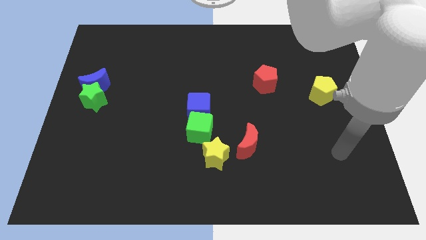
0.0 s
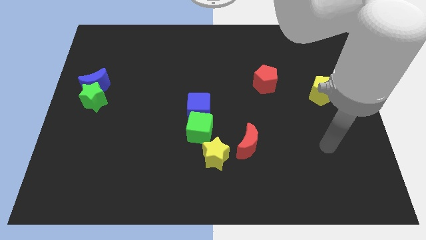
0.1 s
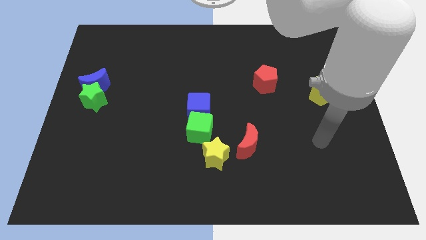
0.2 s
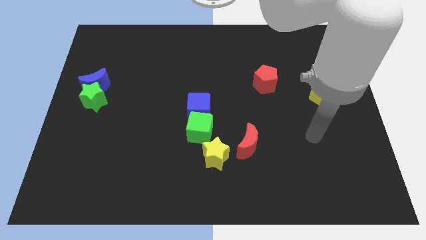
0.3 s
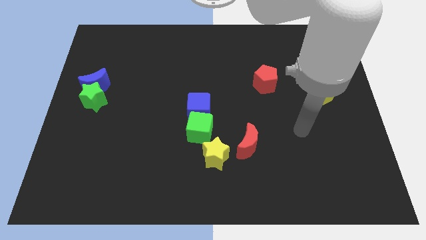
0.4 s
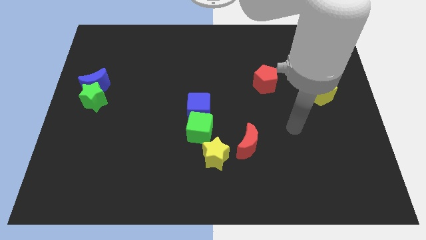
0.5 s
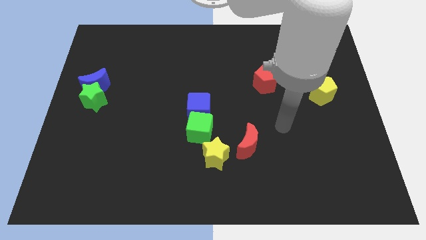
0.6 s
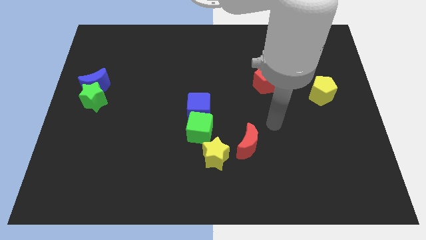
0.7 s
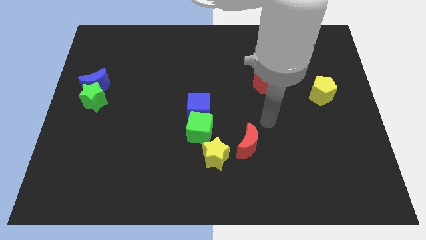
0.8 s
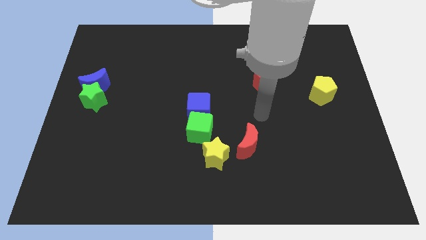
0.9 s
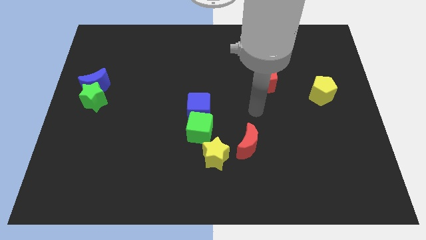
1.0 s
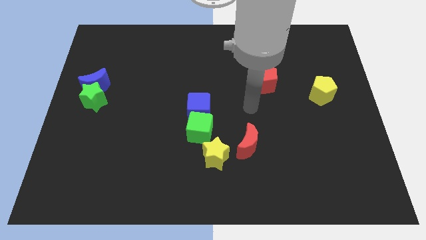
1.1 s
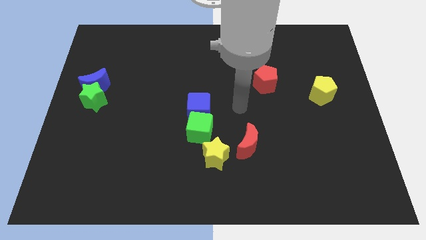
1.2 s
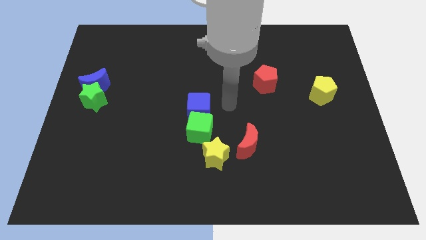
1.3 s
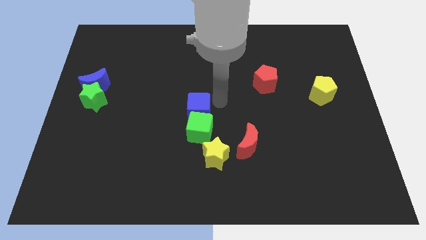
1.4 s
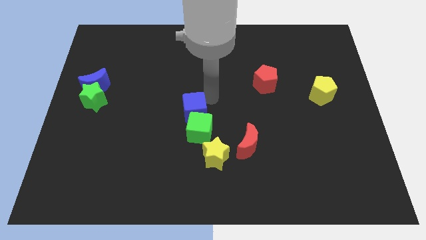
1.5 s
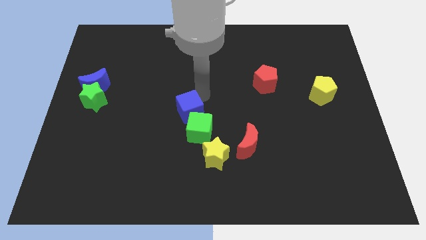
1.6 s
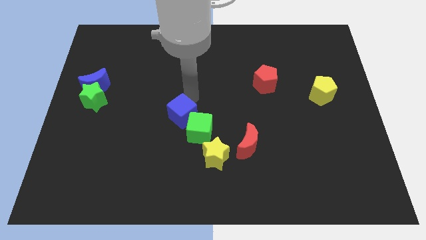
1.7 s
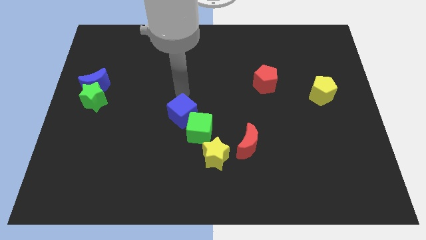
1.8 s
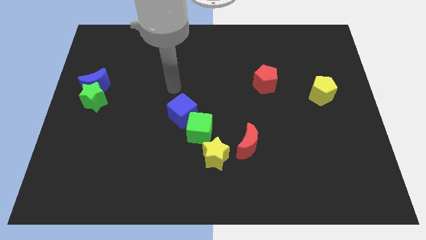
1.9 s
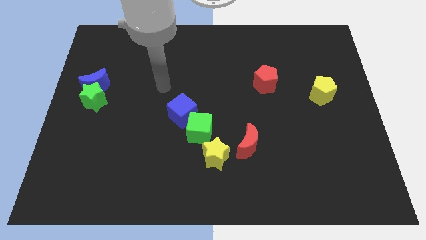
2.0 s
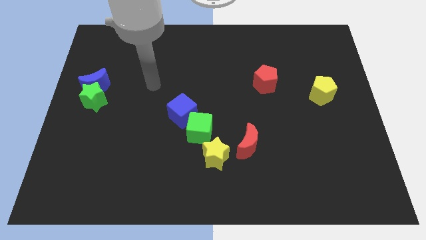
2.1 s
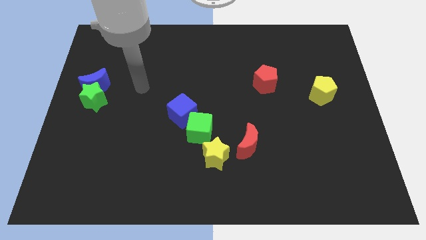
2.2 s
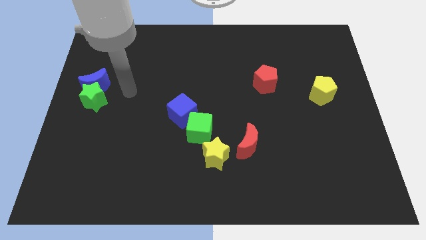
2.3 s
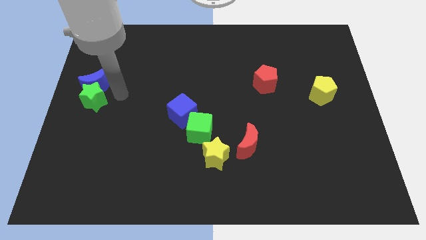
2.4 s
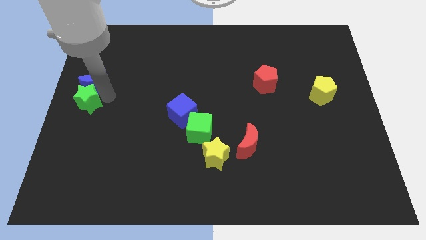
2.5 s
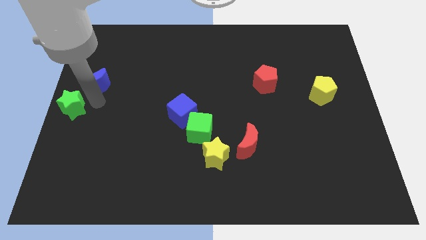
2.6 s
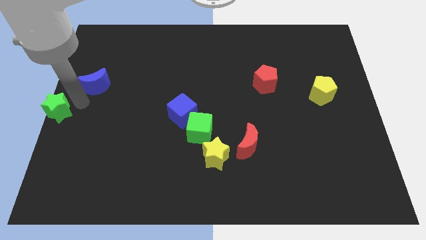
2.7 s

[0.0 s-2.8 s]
move the blue moon away from the green star

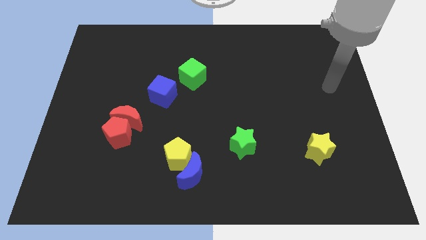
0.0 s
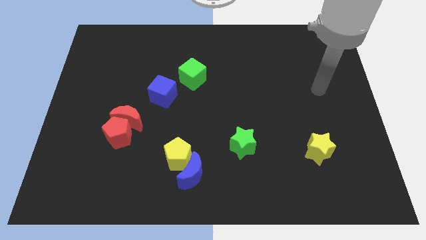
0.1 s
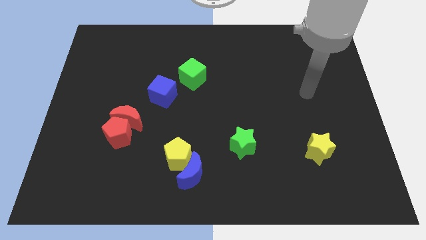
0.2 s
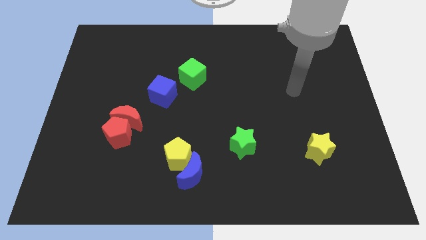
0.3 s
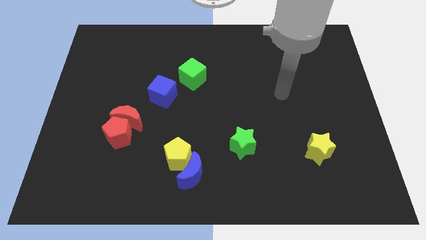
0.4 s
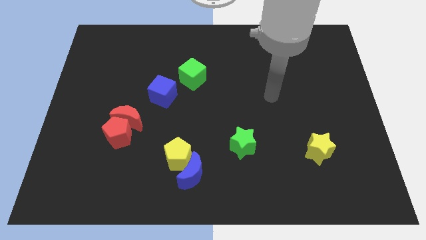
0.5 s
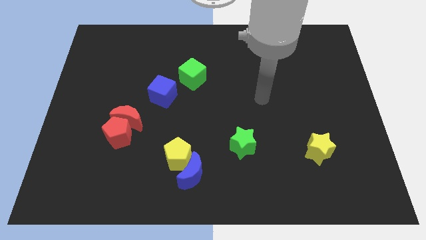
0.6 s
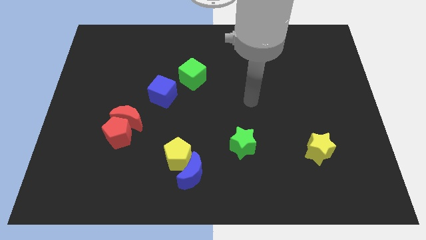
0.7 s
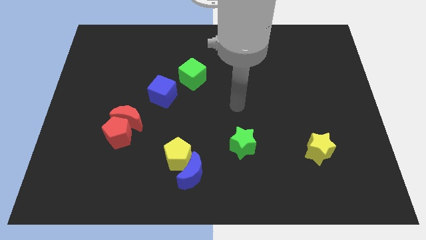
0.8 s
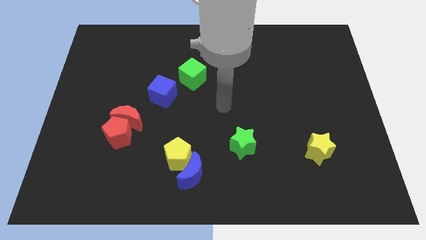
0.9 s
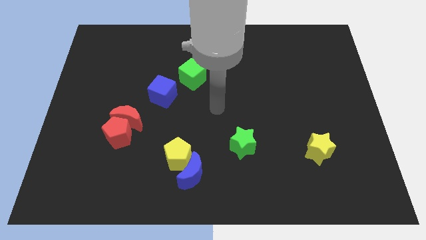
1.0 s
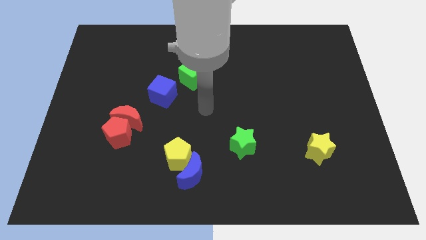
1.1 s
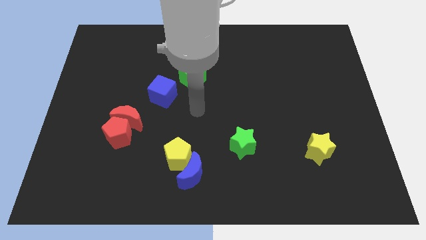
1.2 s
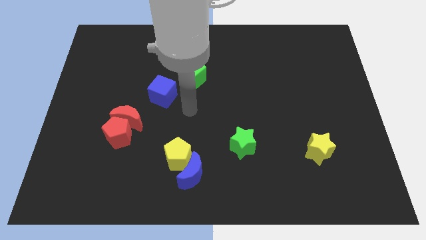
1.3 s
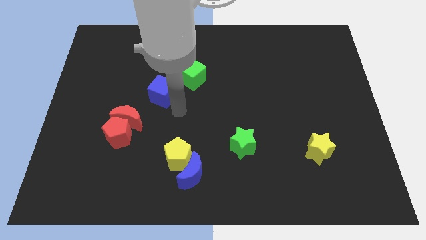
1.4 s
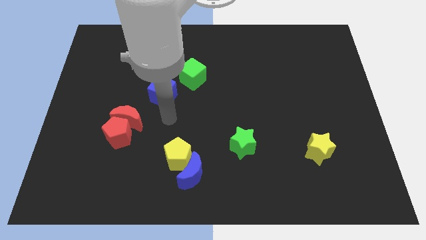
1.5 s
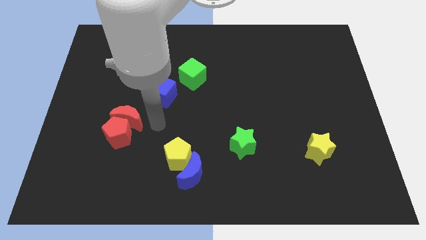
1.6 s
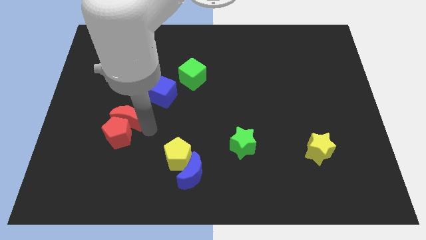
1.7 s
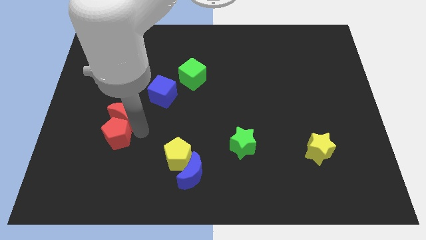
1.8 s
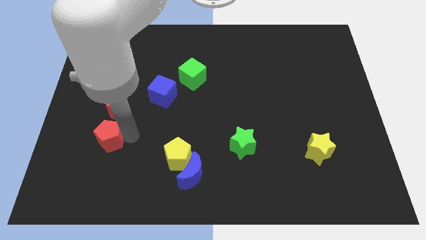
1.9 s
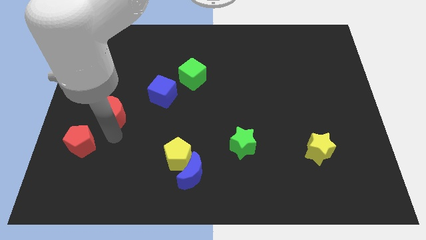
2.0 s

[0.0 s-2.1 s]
separate the red moon from the red pentagon

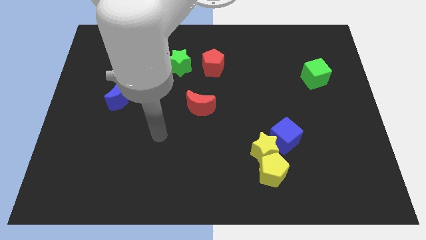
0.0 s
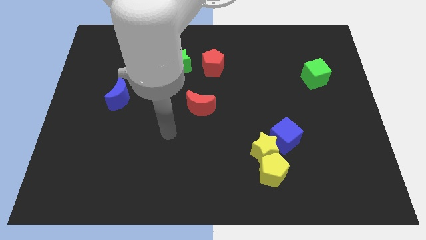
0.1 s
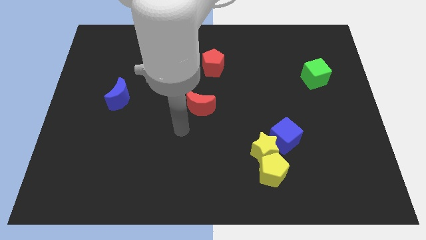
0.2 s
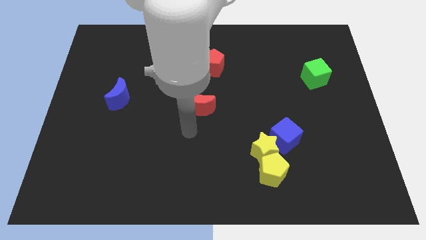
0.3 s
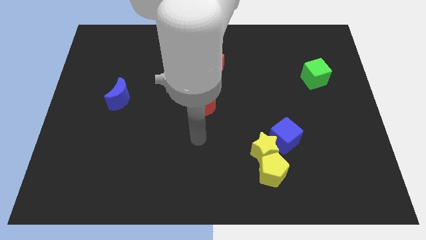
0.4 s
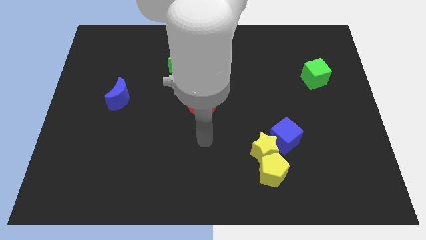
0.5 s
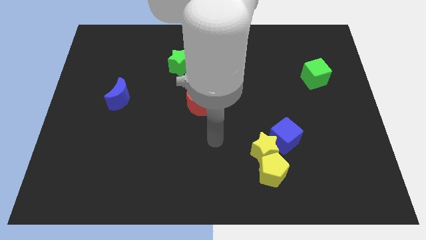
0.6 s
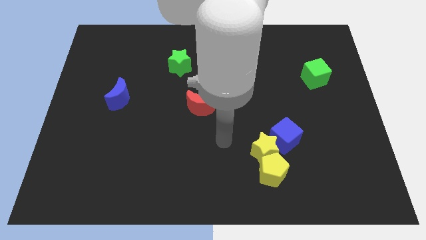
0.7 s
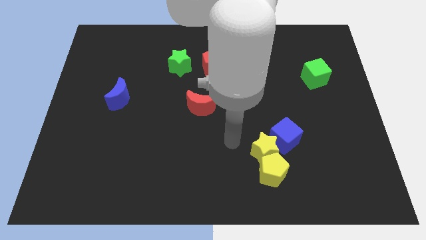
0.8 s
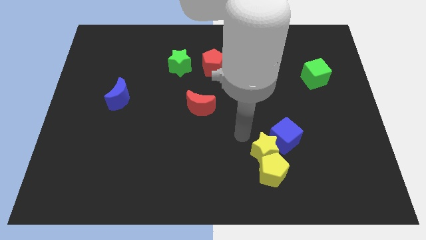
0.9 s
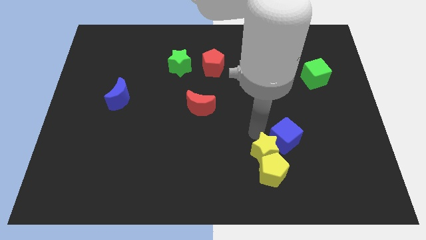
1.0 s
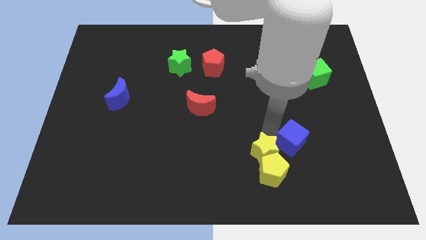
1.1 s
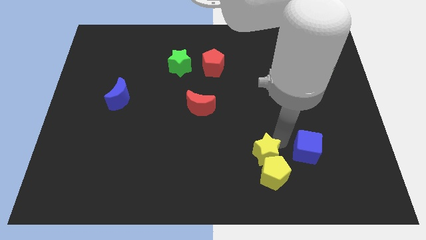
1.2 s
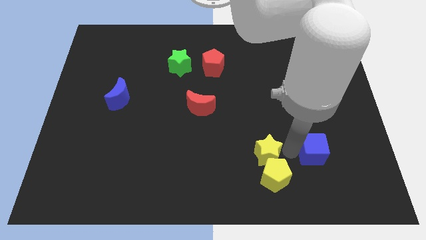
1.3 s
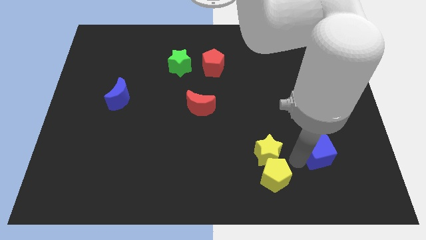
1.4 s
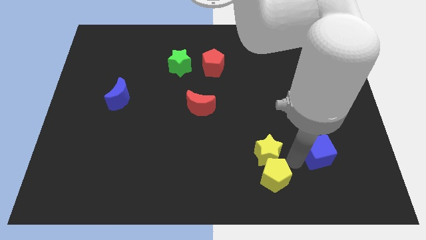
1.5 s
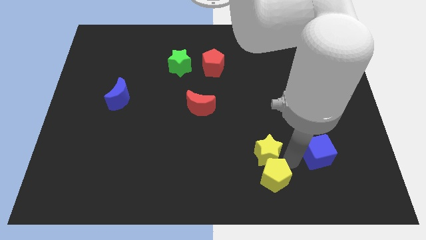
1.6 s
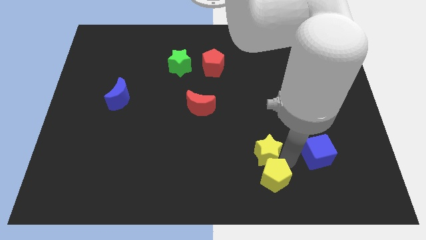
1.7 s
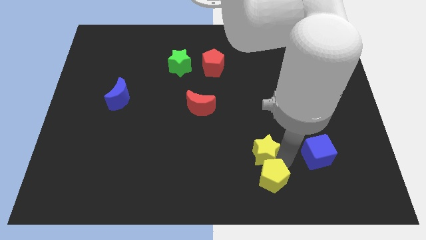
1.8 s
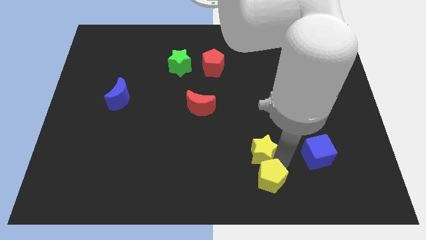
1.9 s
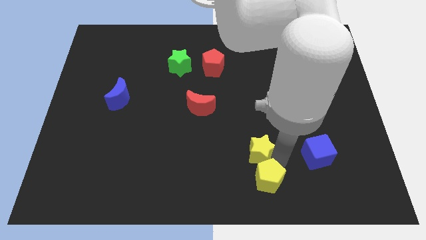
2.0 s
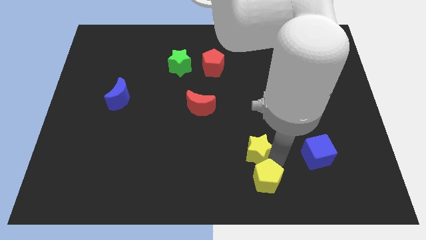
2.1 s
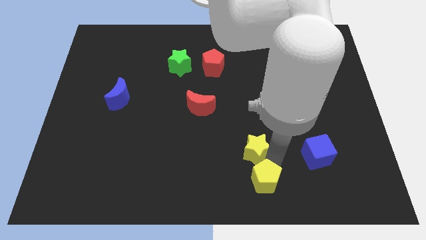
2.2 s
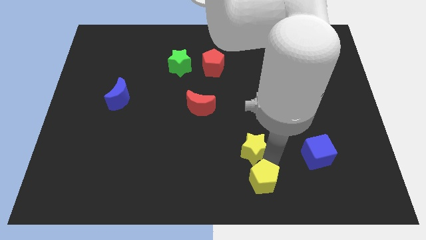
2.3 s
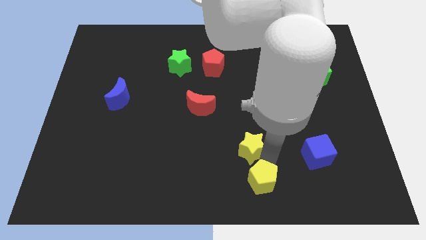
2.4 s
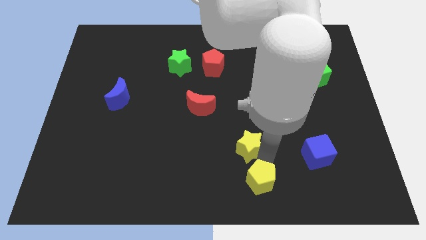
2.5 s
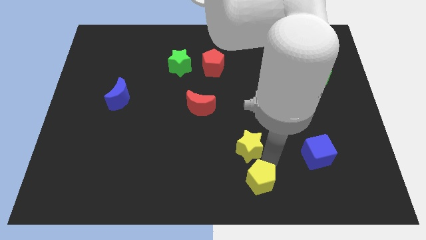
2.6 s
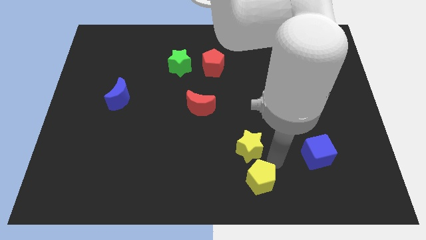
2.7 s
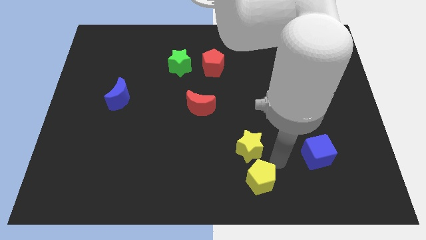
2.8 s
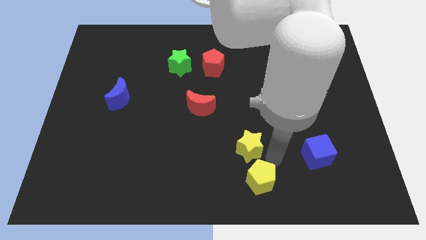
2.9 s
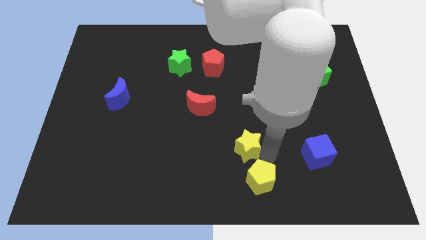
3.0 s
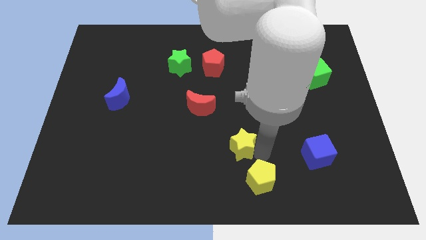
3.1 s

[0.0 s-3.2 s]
pull the yellow star apart from the yellow pentagon and blue cube

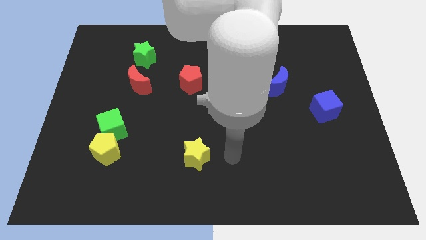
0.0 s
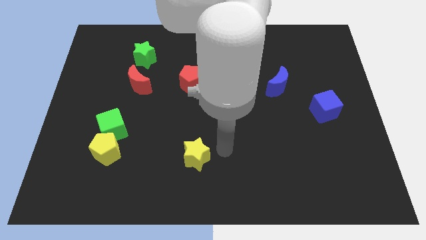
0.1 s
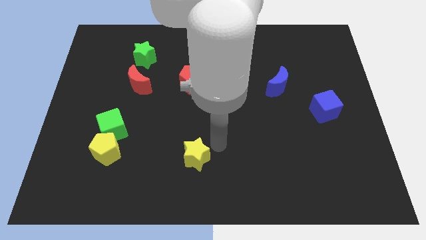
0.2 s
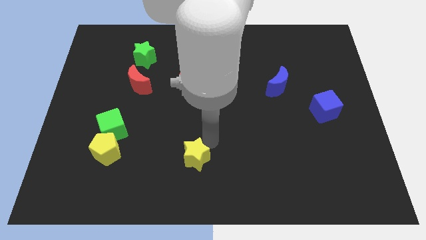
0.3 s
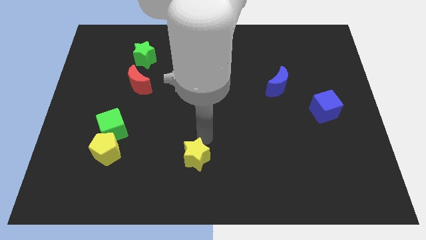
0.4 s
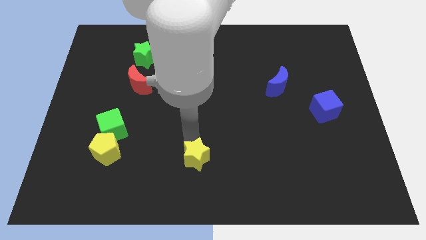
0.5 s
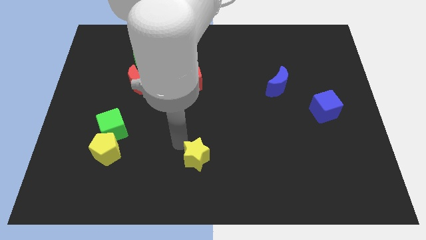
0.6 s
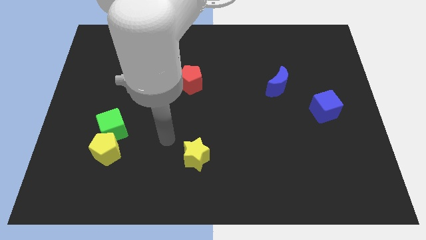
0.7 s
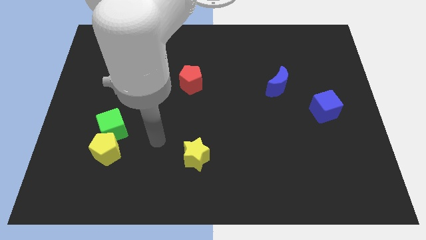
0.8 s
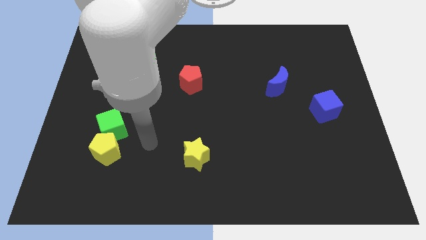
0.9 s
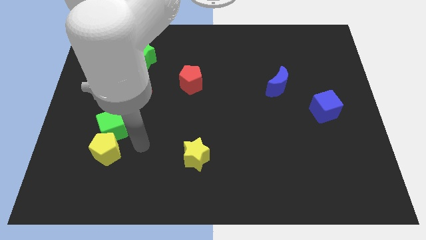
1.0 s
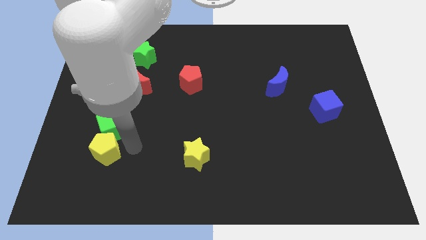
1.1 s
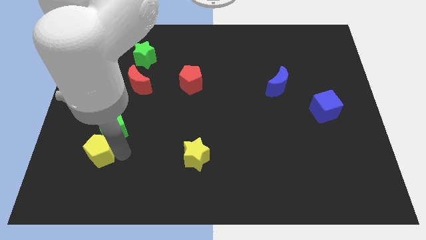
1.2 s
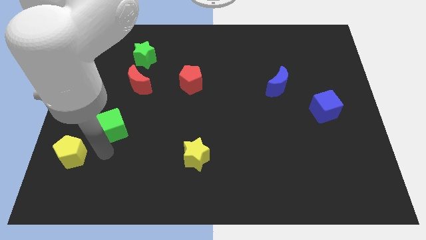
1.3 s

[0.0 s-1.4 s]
separate the green cube from the yellow pentagon
